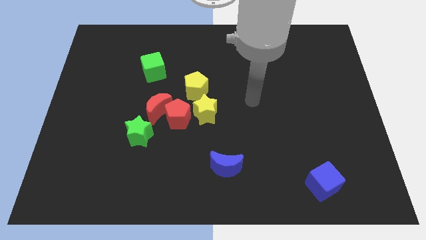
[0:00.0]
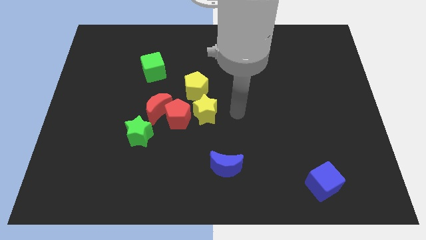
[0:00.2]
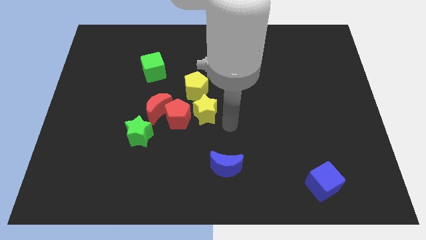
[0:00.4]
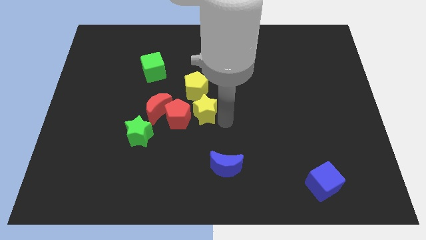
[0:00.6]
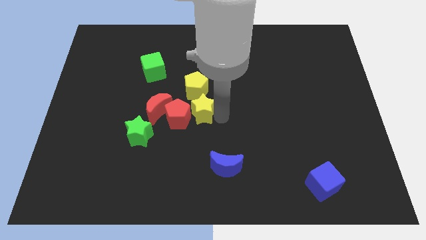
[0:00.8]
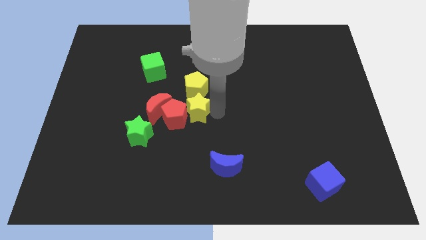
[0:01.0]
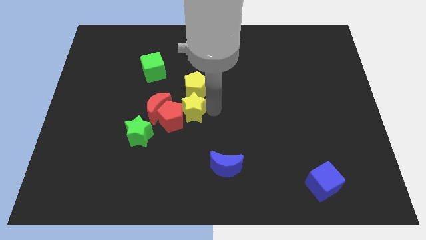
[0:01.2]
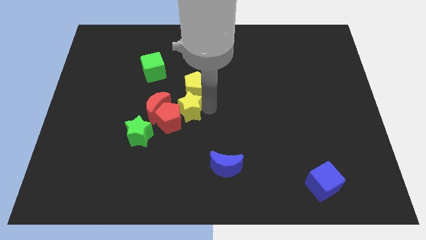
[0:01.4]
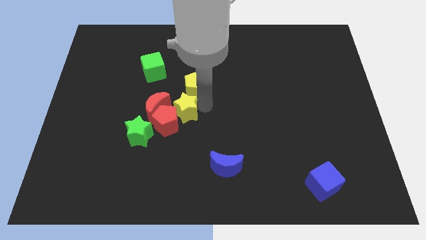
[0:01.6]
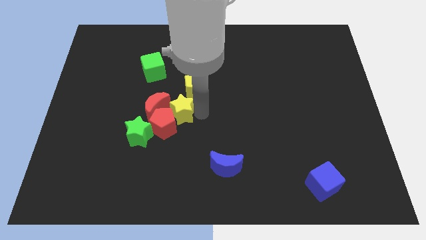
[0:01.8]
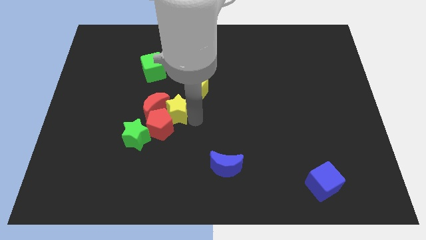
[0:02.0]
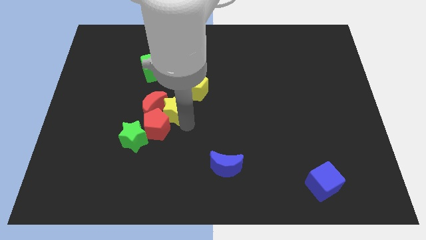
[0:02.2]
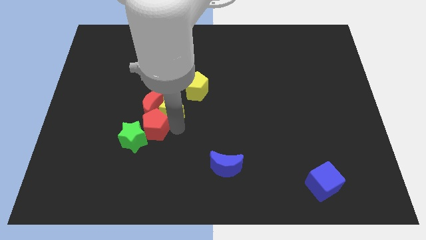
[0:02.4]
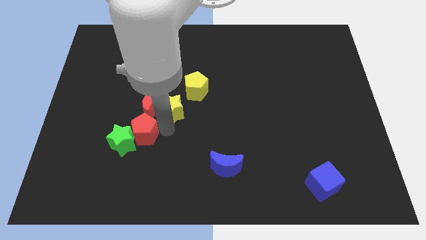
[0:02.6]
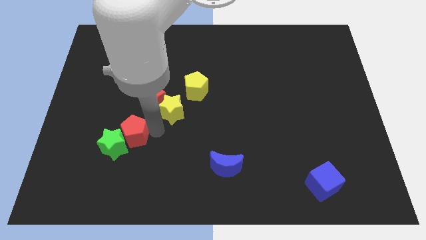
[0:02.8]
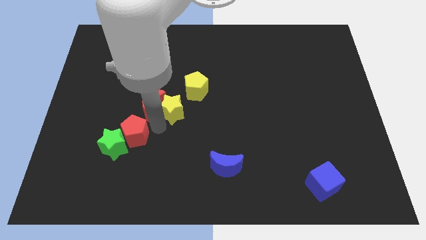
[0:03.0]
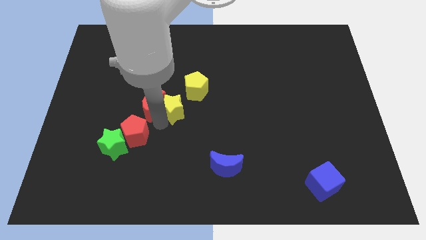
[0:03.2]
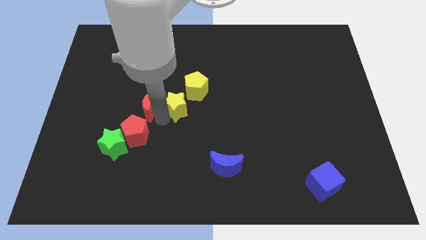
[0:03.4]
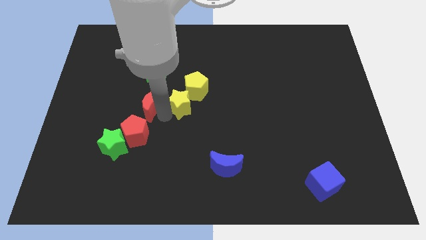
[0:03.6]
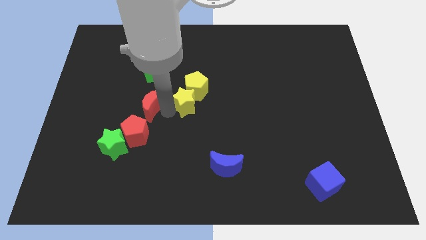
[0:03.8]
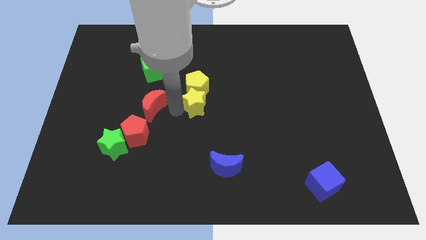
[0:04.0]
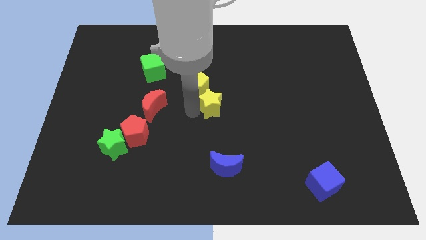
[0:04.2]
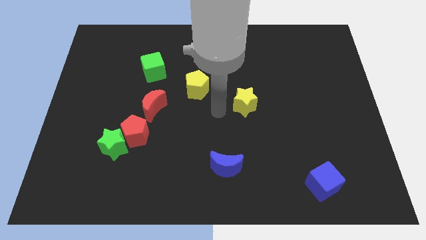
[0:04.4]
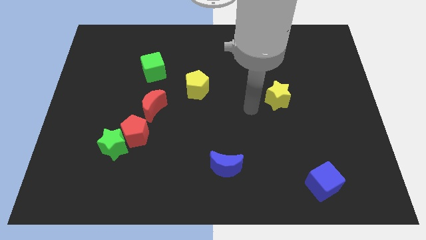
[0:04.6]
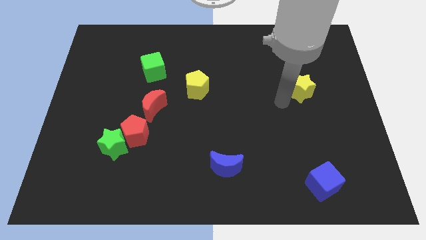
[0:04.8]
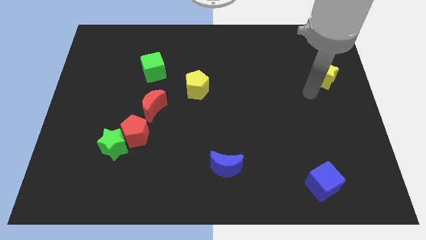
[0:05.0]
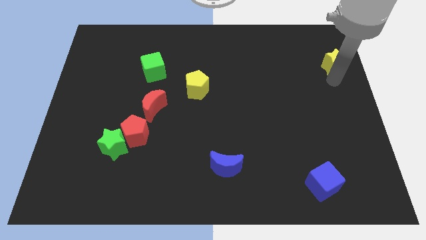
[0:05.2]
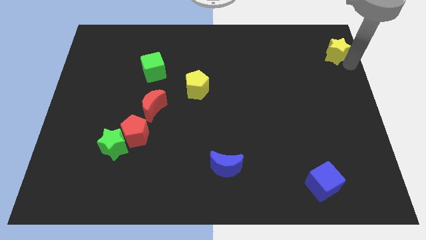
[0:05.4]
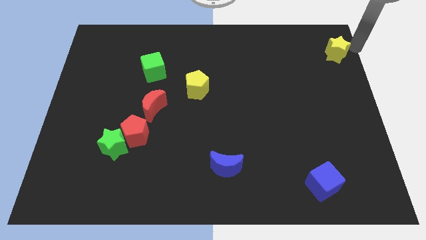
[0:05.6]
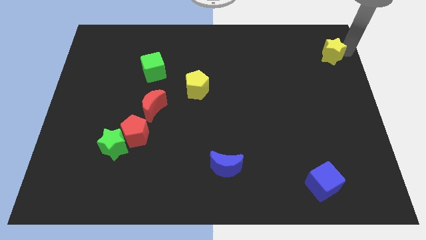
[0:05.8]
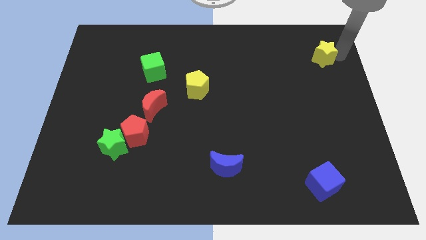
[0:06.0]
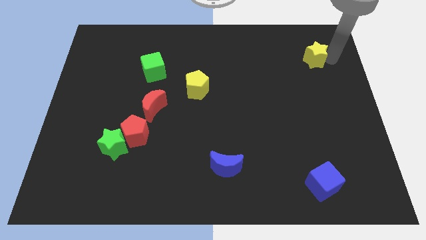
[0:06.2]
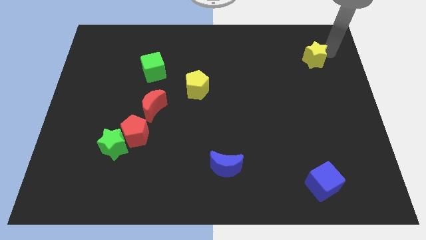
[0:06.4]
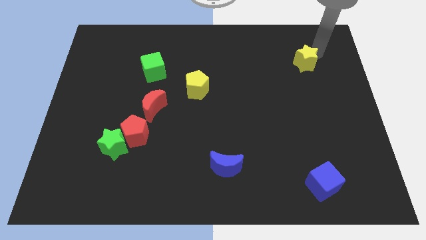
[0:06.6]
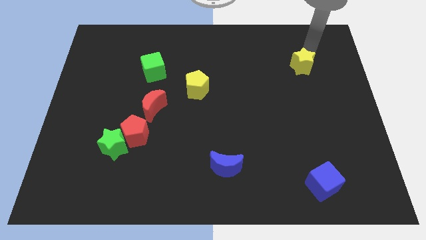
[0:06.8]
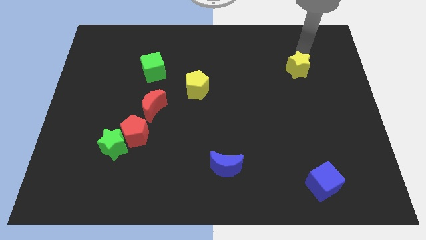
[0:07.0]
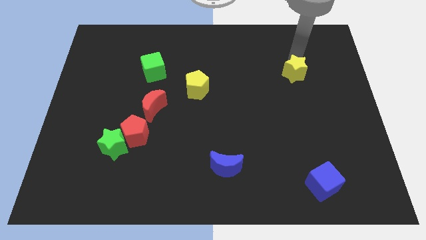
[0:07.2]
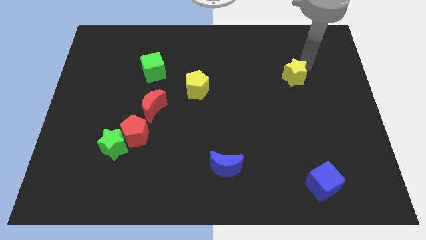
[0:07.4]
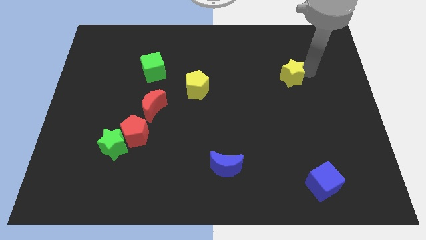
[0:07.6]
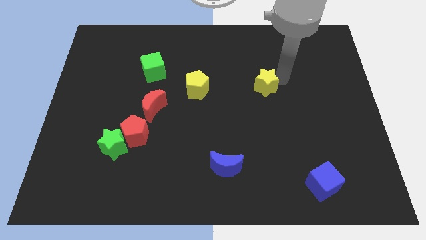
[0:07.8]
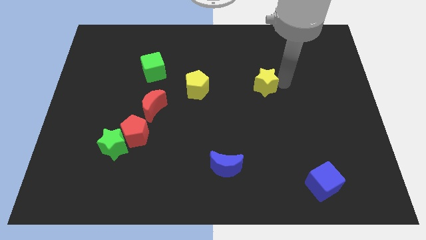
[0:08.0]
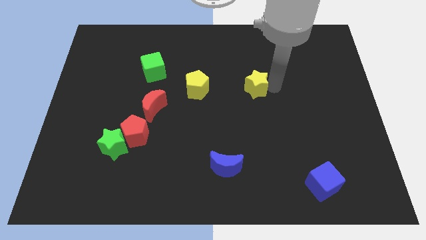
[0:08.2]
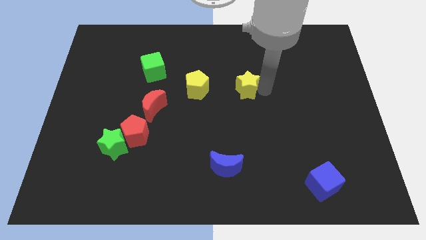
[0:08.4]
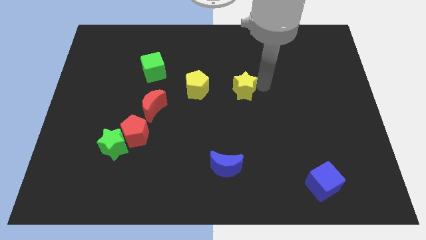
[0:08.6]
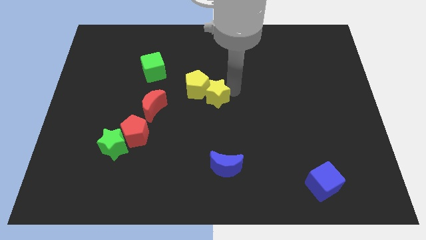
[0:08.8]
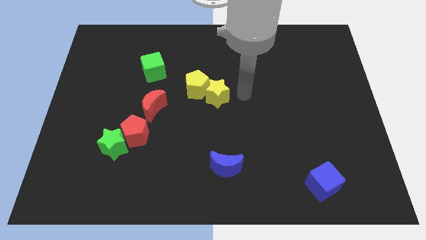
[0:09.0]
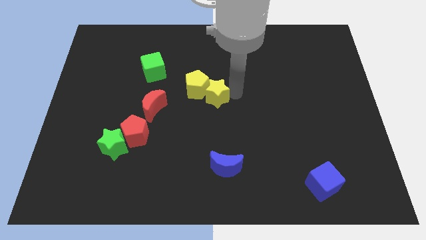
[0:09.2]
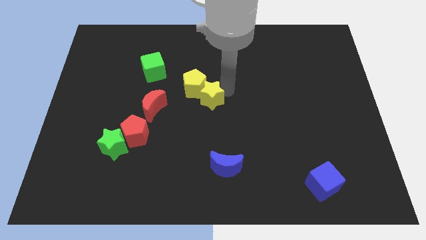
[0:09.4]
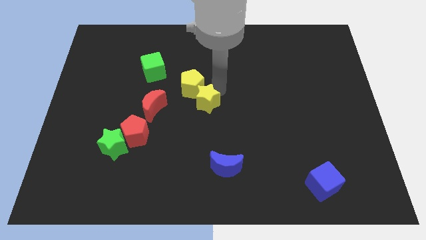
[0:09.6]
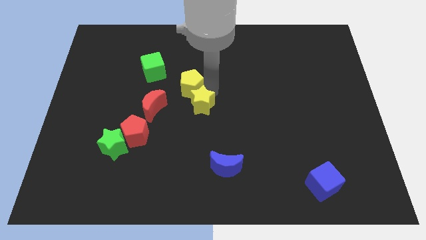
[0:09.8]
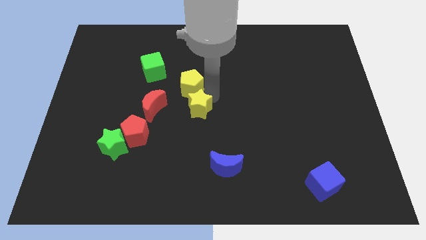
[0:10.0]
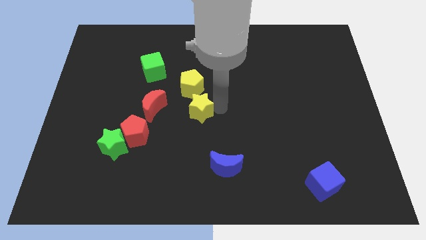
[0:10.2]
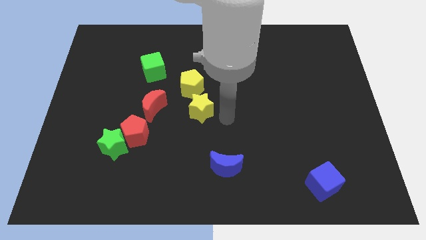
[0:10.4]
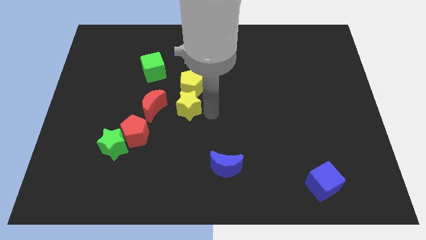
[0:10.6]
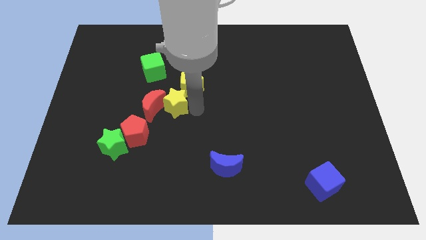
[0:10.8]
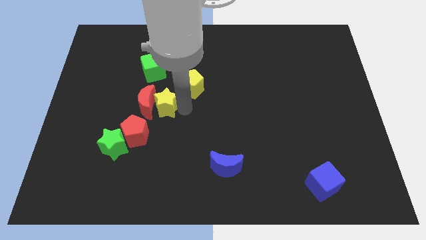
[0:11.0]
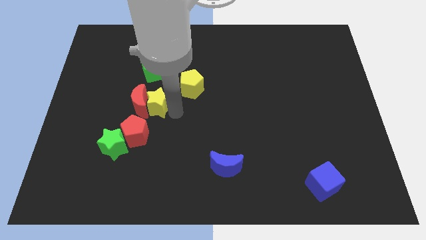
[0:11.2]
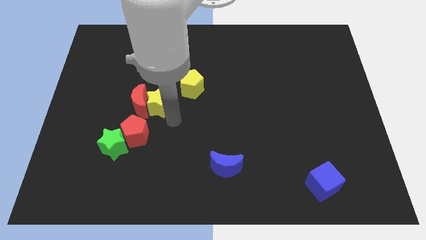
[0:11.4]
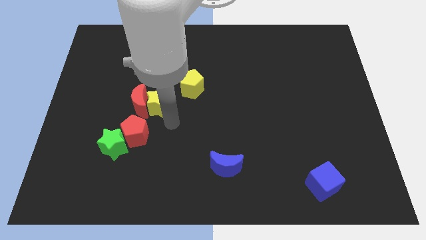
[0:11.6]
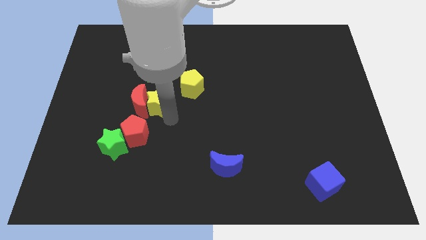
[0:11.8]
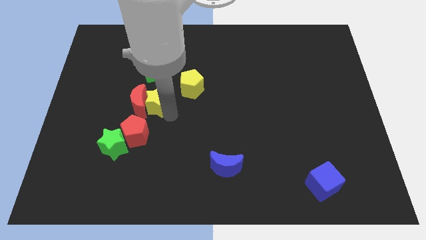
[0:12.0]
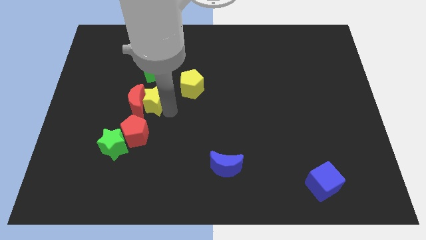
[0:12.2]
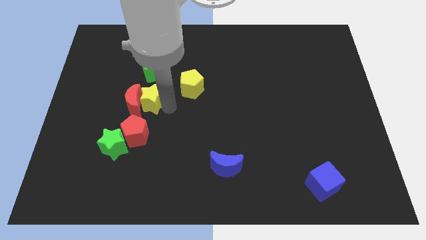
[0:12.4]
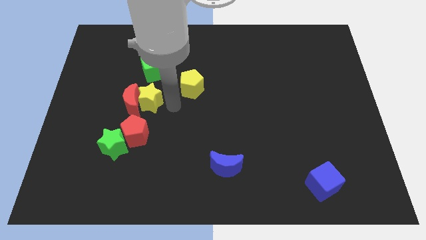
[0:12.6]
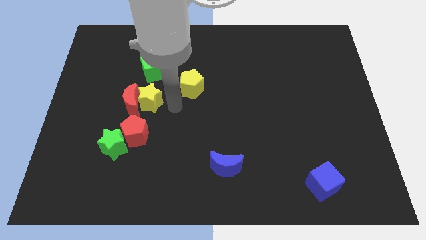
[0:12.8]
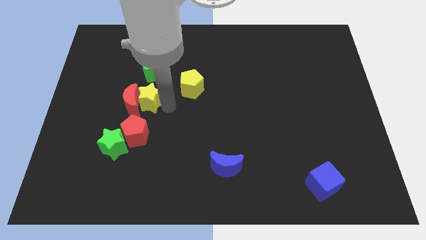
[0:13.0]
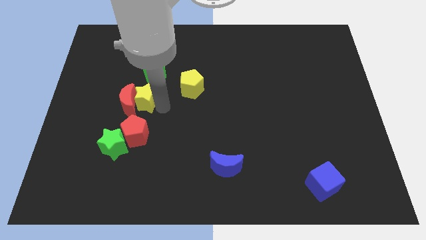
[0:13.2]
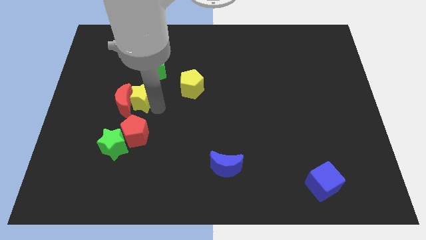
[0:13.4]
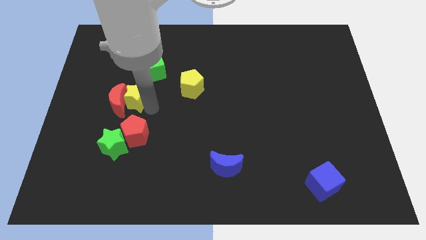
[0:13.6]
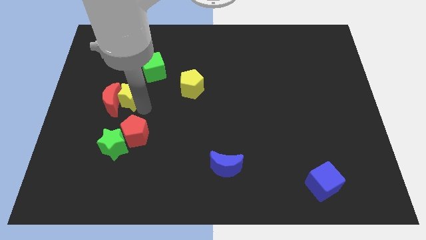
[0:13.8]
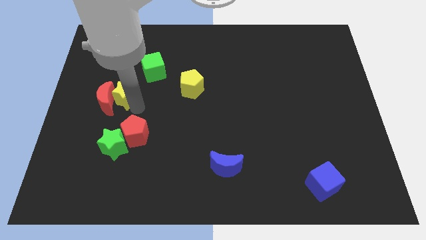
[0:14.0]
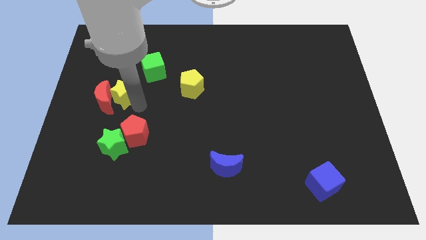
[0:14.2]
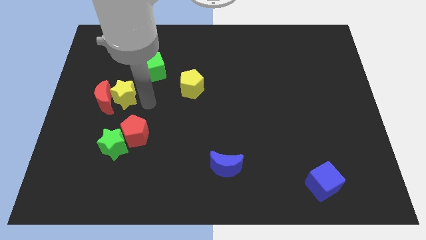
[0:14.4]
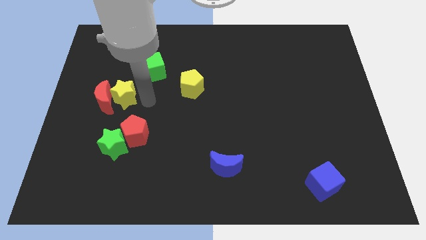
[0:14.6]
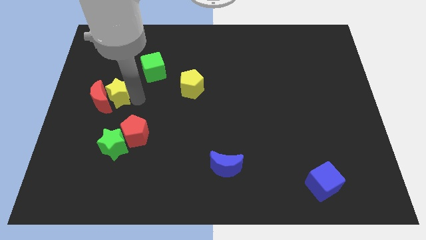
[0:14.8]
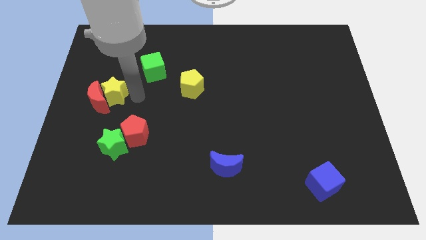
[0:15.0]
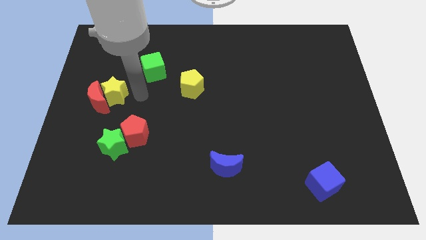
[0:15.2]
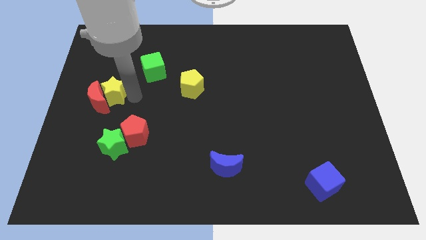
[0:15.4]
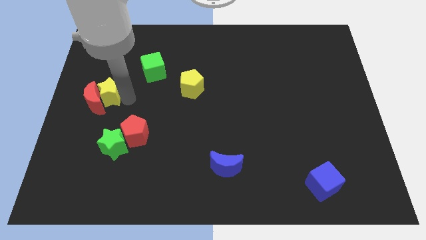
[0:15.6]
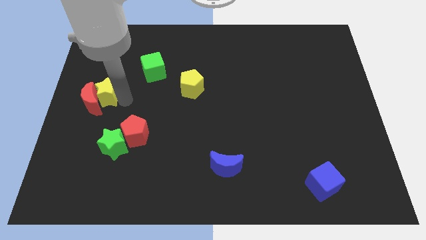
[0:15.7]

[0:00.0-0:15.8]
slide the yellow star to the left side of the board
